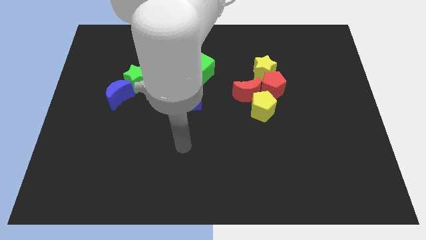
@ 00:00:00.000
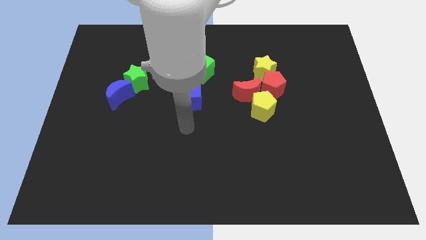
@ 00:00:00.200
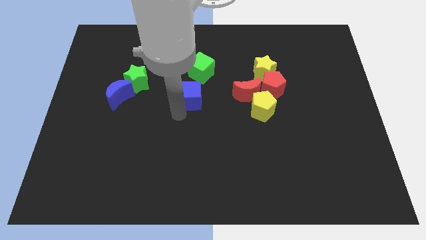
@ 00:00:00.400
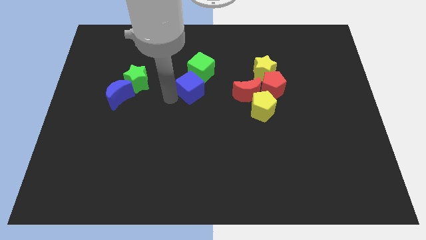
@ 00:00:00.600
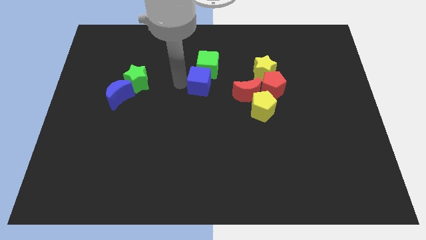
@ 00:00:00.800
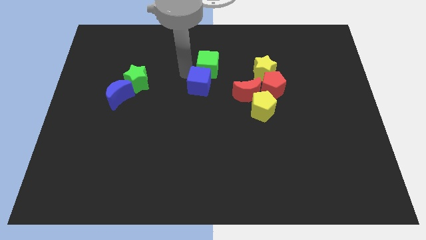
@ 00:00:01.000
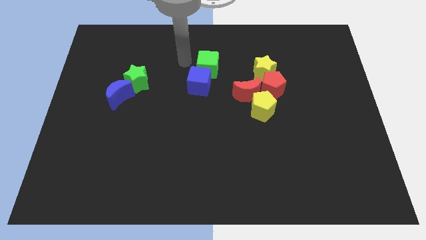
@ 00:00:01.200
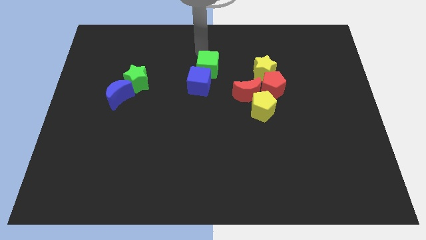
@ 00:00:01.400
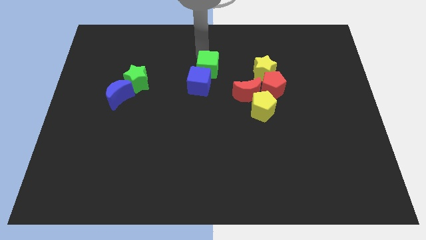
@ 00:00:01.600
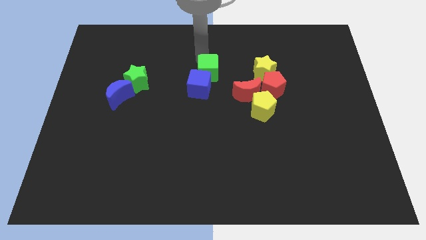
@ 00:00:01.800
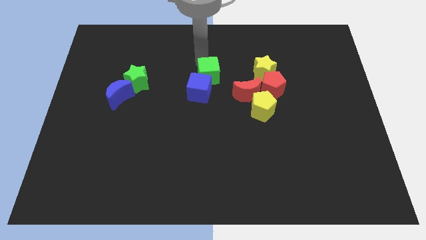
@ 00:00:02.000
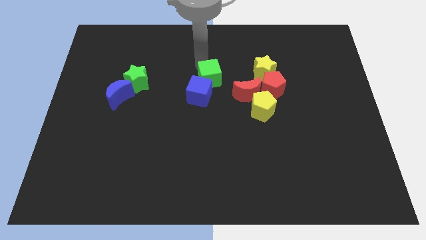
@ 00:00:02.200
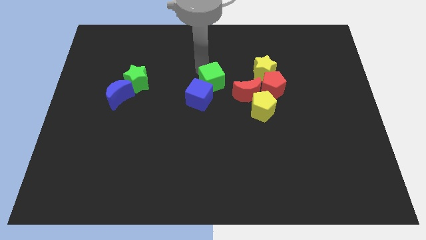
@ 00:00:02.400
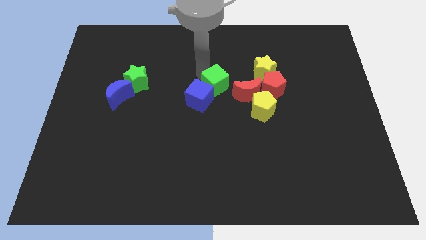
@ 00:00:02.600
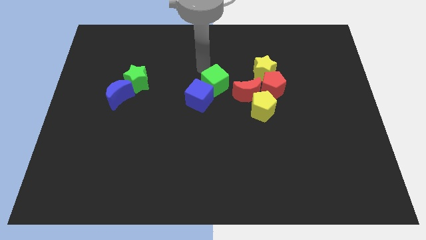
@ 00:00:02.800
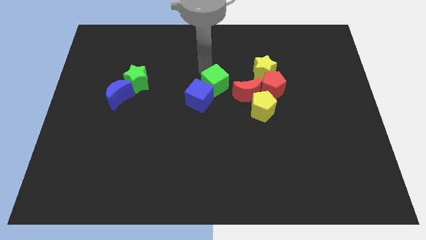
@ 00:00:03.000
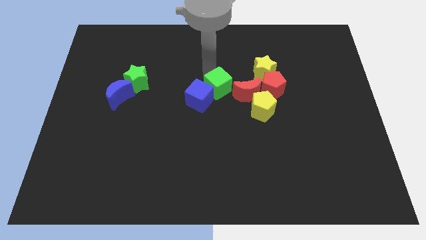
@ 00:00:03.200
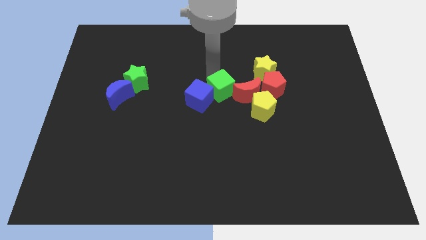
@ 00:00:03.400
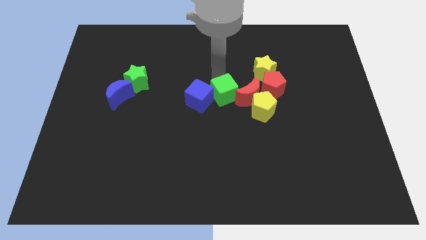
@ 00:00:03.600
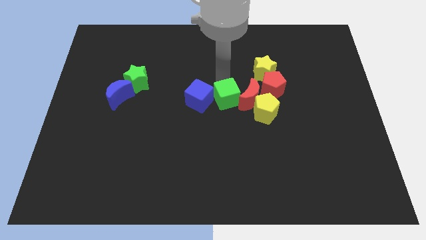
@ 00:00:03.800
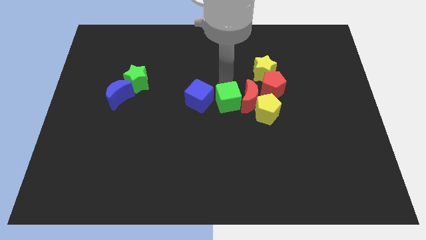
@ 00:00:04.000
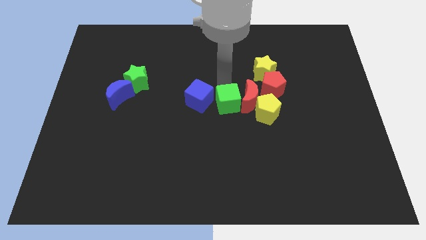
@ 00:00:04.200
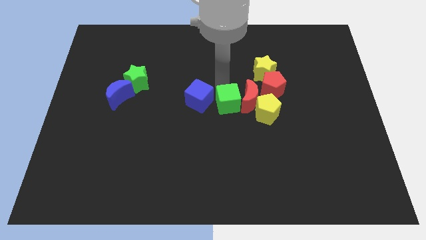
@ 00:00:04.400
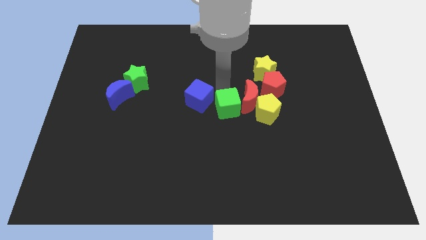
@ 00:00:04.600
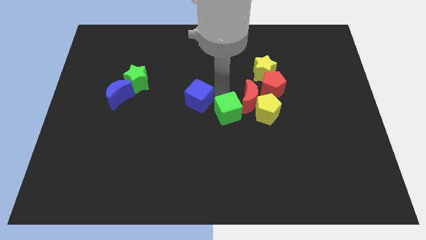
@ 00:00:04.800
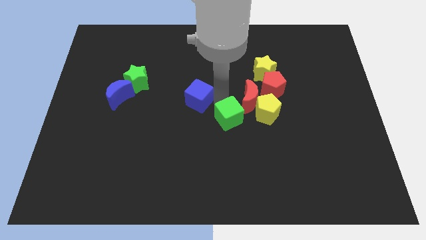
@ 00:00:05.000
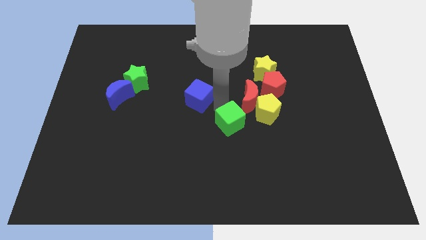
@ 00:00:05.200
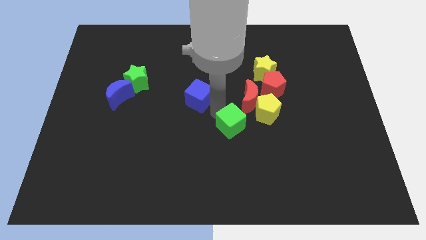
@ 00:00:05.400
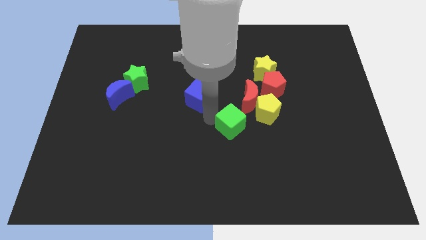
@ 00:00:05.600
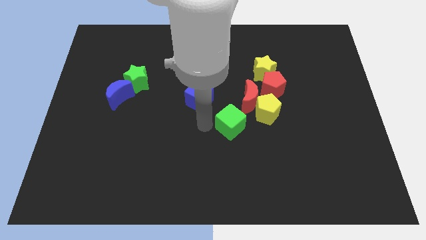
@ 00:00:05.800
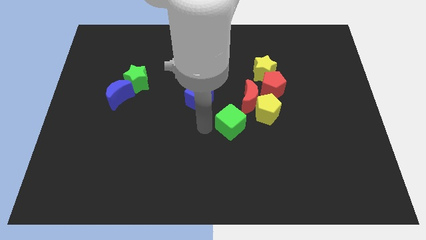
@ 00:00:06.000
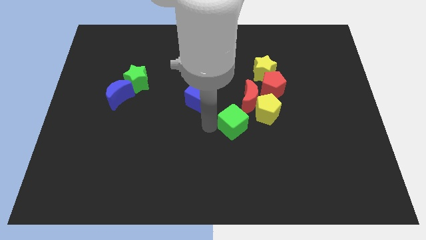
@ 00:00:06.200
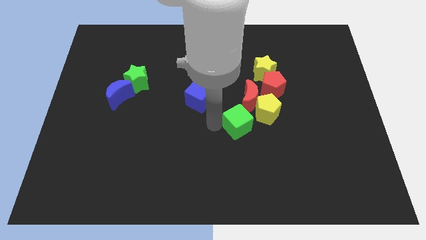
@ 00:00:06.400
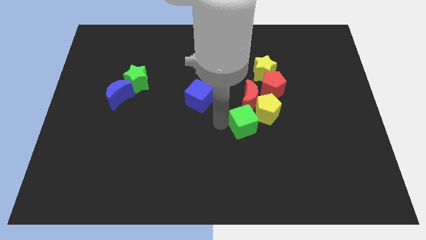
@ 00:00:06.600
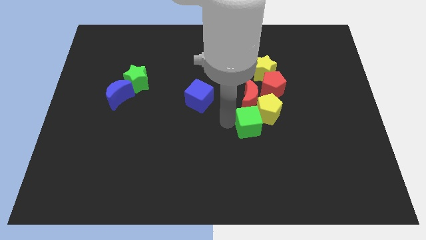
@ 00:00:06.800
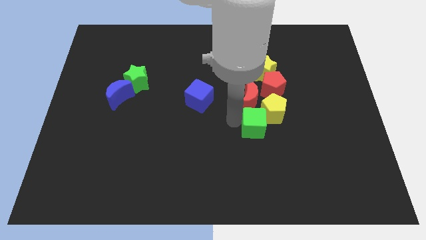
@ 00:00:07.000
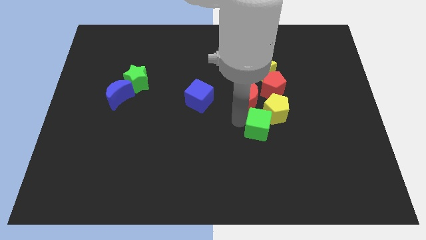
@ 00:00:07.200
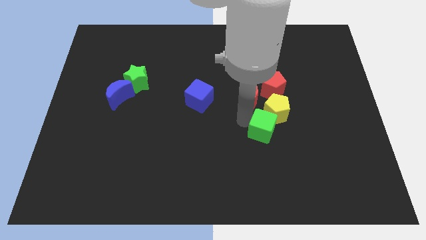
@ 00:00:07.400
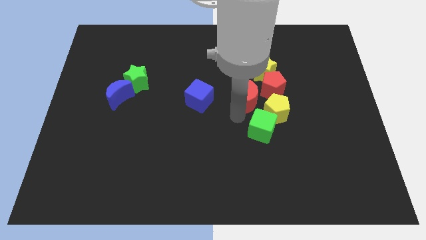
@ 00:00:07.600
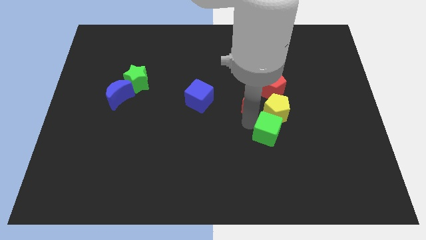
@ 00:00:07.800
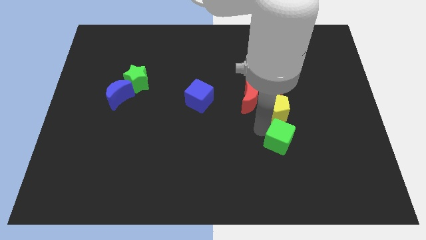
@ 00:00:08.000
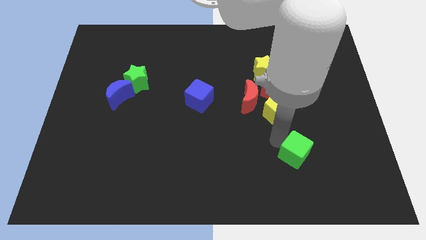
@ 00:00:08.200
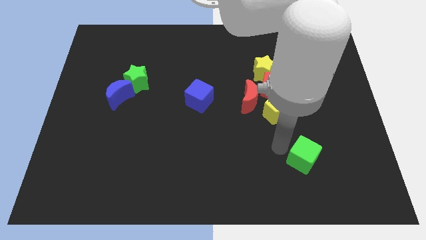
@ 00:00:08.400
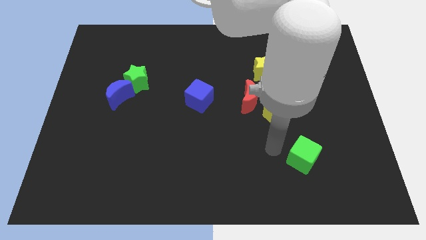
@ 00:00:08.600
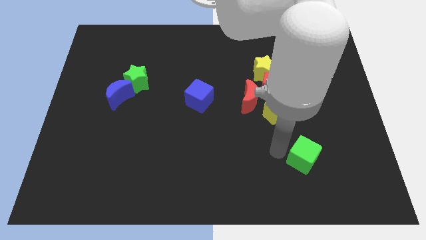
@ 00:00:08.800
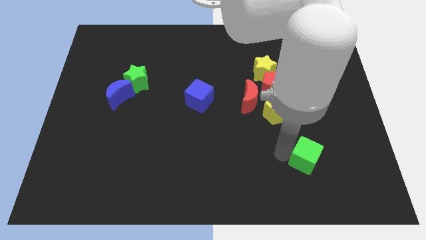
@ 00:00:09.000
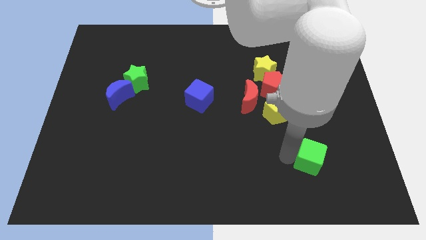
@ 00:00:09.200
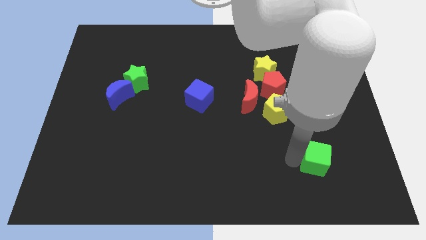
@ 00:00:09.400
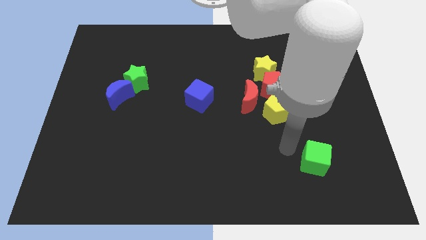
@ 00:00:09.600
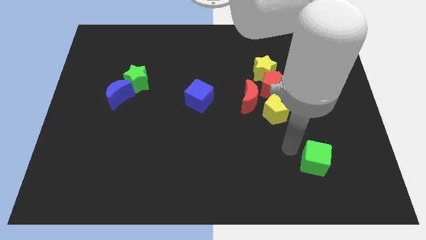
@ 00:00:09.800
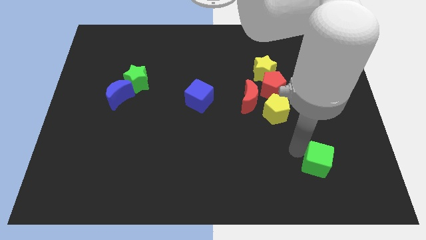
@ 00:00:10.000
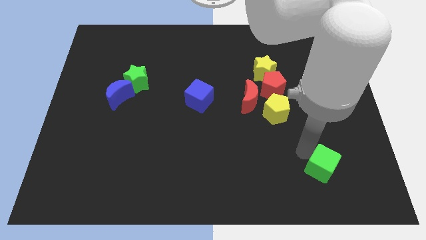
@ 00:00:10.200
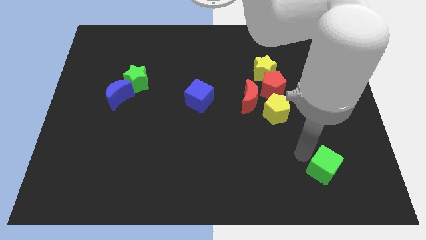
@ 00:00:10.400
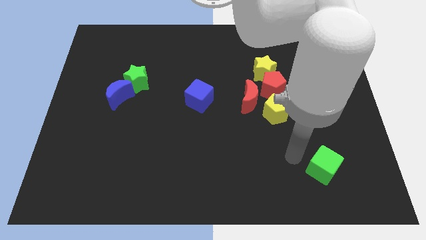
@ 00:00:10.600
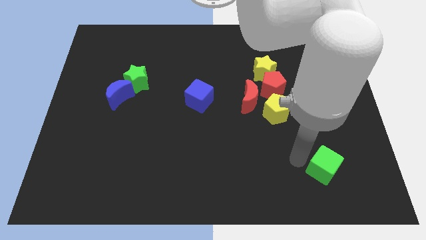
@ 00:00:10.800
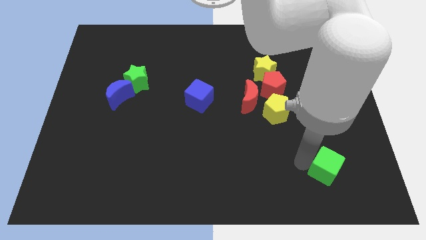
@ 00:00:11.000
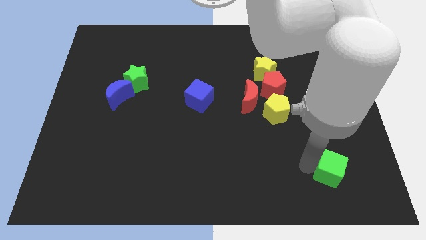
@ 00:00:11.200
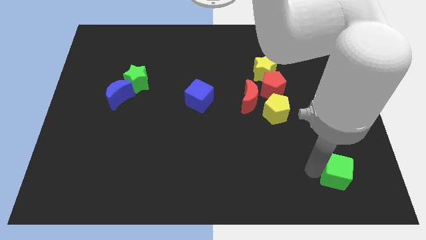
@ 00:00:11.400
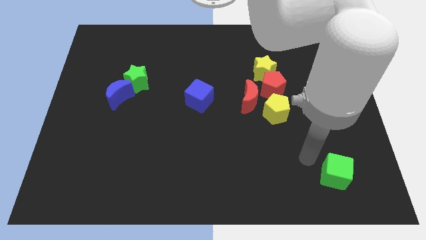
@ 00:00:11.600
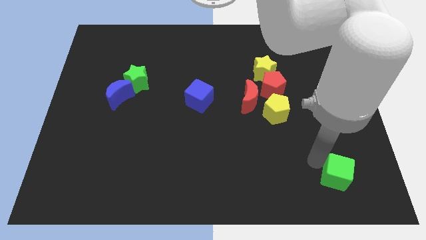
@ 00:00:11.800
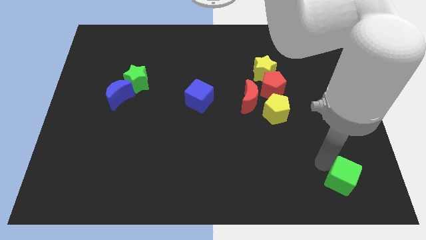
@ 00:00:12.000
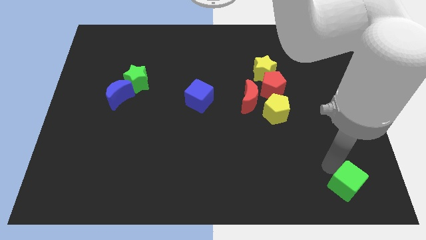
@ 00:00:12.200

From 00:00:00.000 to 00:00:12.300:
move the green cube to the bottom right

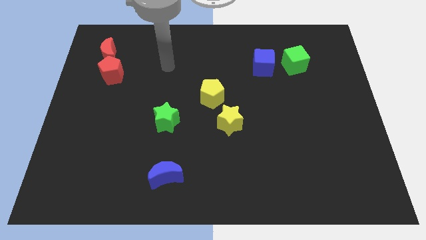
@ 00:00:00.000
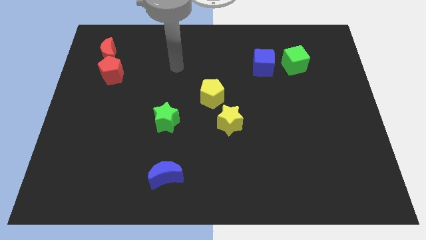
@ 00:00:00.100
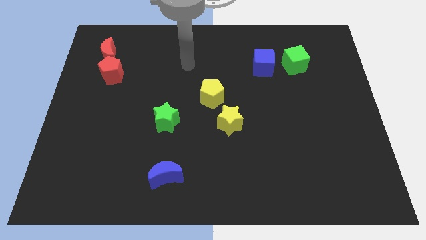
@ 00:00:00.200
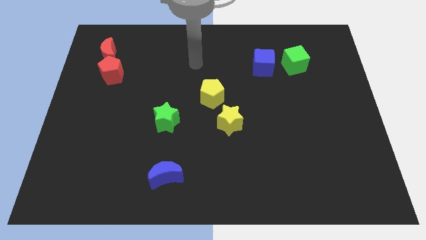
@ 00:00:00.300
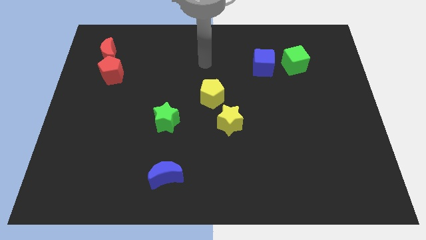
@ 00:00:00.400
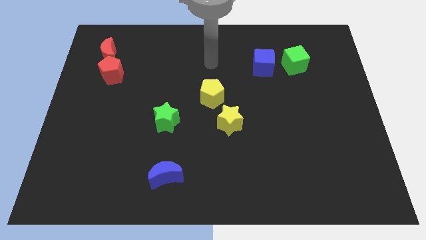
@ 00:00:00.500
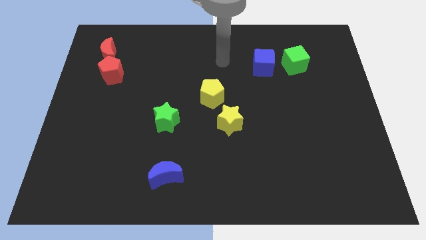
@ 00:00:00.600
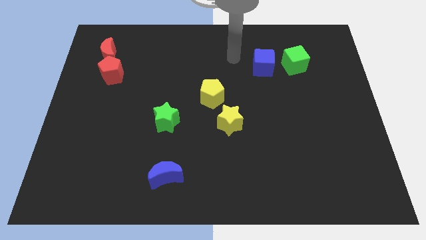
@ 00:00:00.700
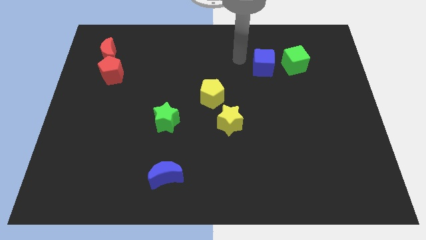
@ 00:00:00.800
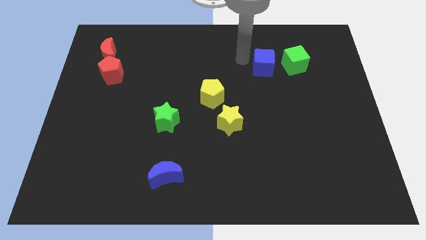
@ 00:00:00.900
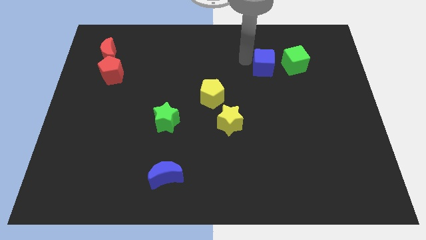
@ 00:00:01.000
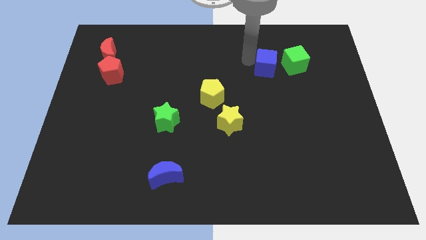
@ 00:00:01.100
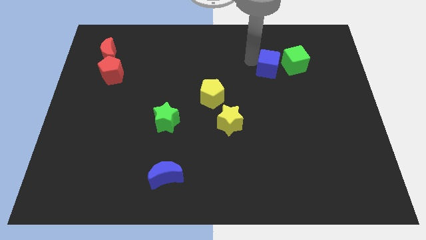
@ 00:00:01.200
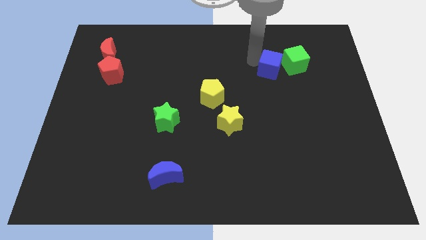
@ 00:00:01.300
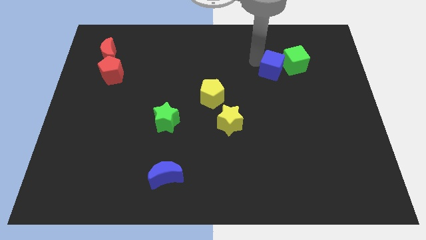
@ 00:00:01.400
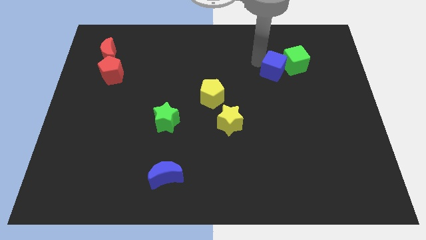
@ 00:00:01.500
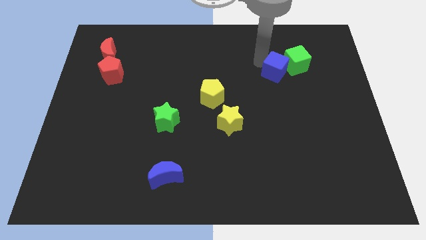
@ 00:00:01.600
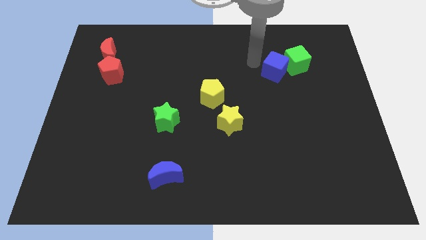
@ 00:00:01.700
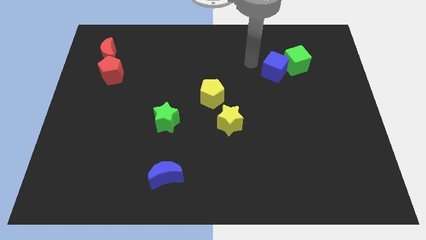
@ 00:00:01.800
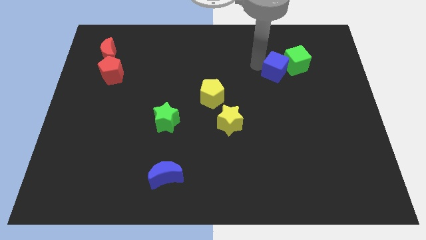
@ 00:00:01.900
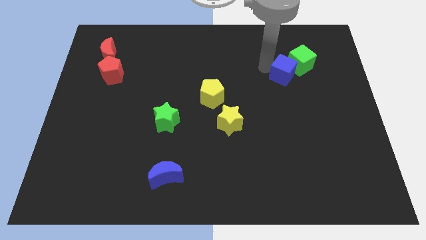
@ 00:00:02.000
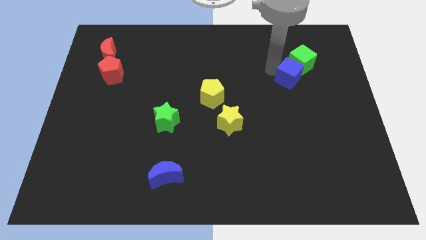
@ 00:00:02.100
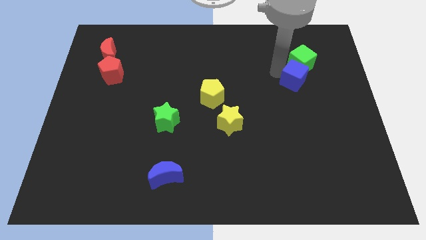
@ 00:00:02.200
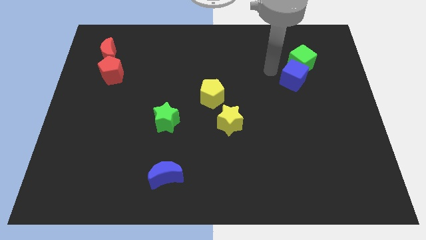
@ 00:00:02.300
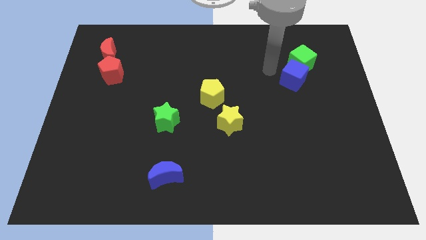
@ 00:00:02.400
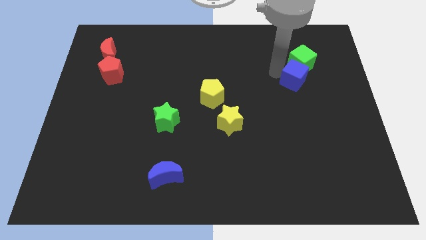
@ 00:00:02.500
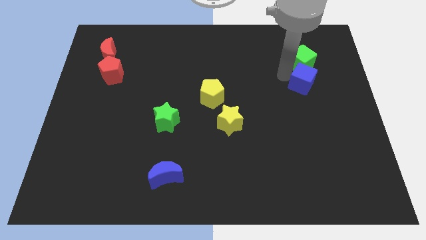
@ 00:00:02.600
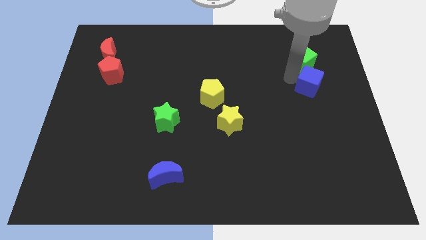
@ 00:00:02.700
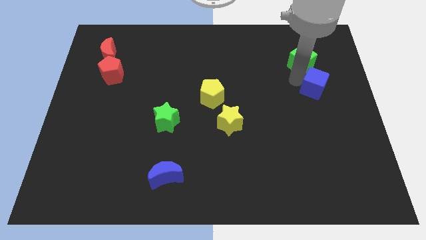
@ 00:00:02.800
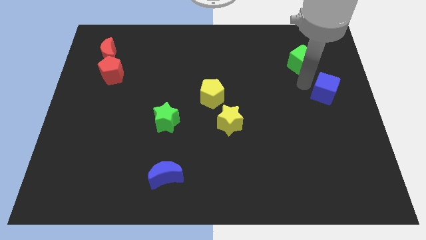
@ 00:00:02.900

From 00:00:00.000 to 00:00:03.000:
slide the blue cube to the right side
